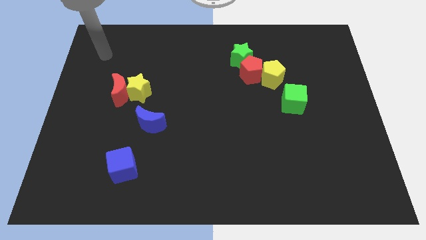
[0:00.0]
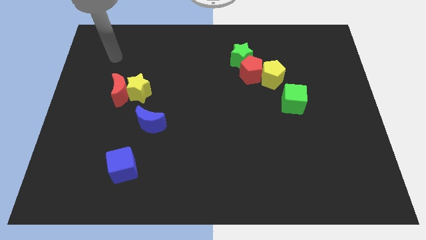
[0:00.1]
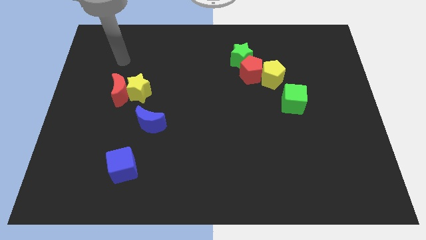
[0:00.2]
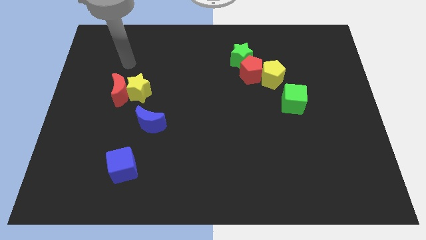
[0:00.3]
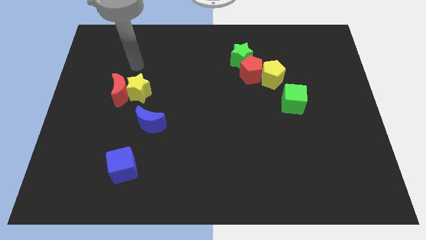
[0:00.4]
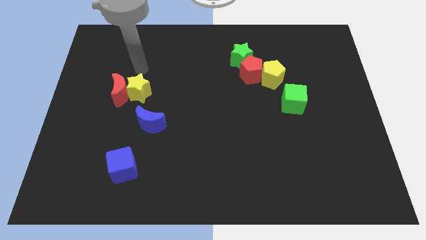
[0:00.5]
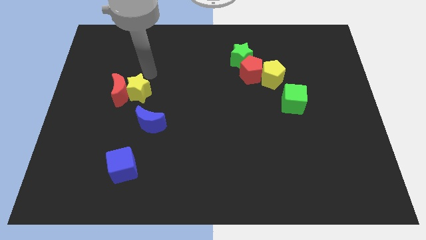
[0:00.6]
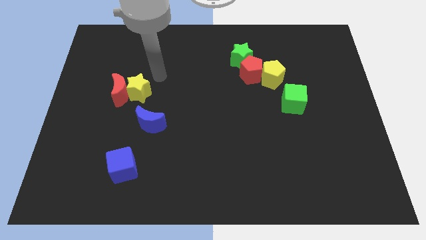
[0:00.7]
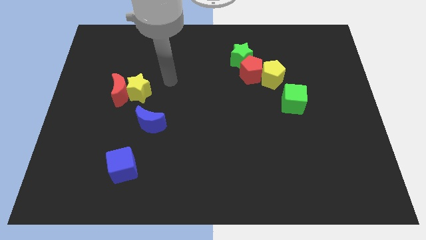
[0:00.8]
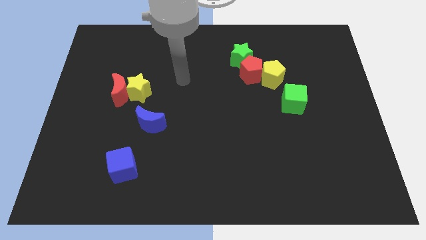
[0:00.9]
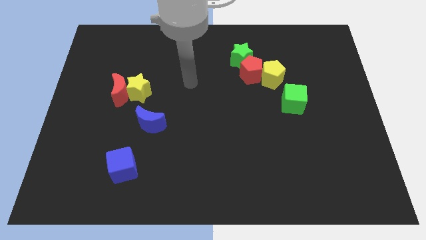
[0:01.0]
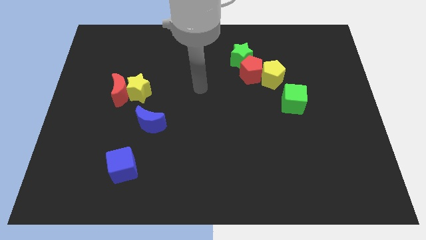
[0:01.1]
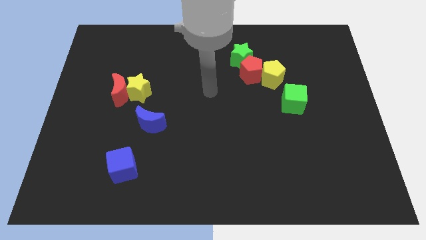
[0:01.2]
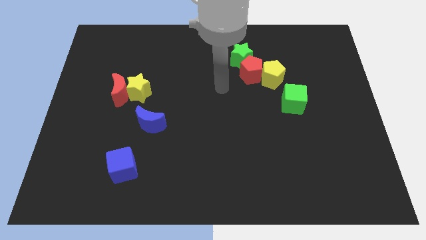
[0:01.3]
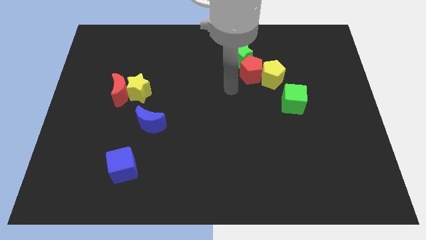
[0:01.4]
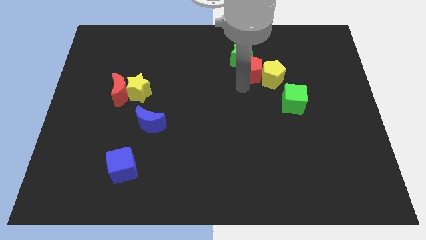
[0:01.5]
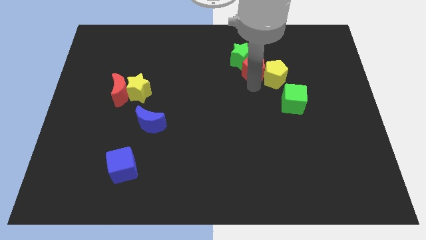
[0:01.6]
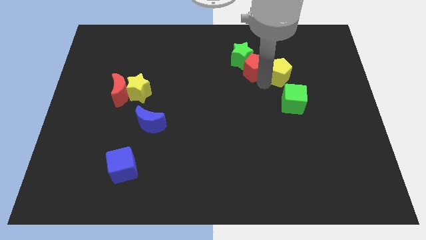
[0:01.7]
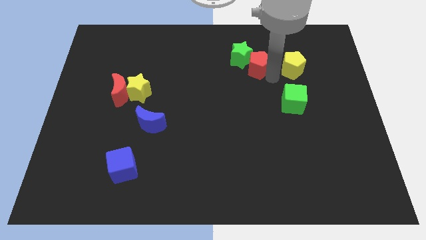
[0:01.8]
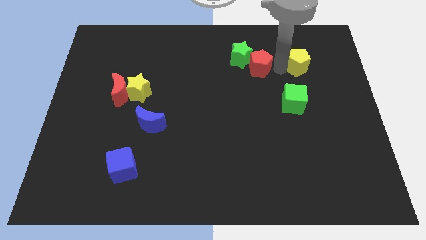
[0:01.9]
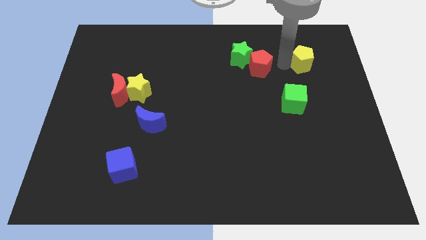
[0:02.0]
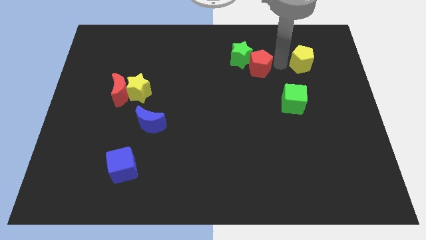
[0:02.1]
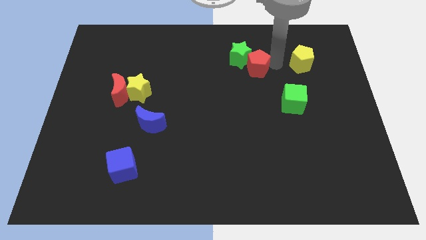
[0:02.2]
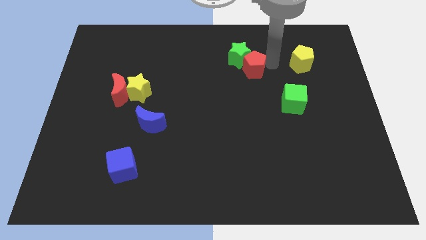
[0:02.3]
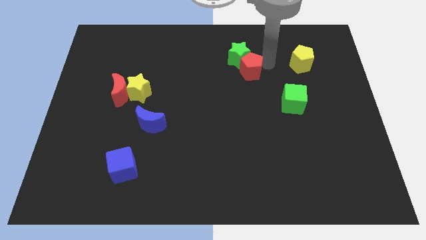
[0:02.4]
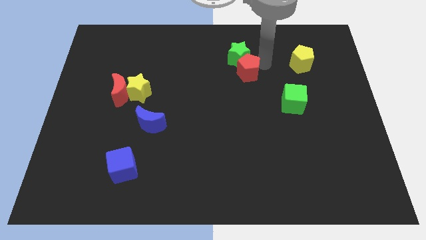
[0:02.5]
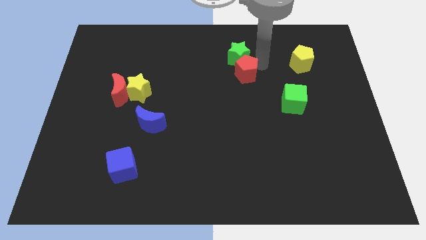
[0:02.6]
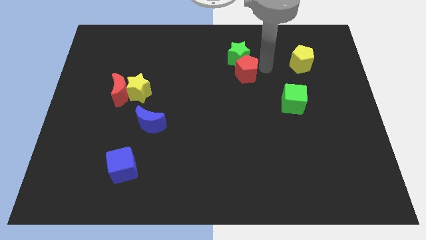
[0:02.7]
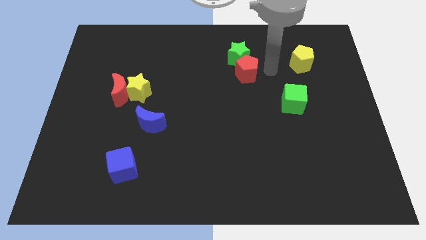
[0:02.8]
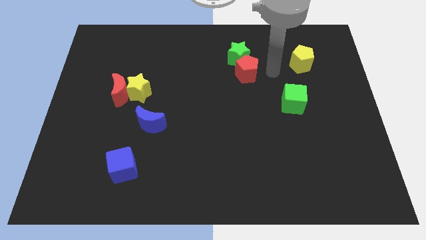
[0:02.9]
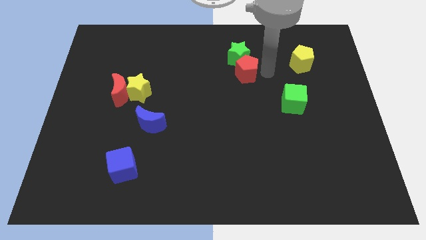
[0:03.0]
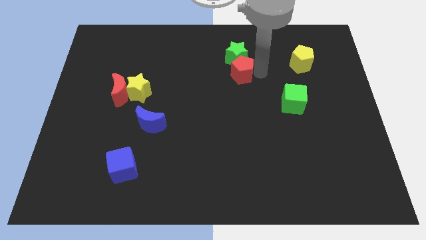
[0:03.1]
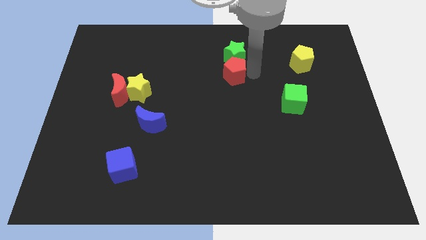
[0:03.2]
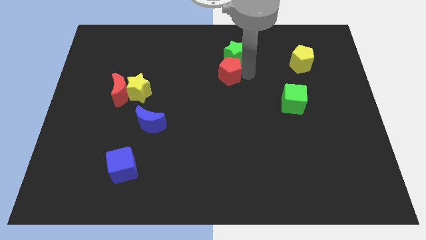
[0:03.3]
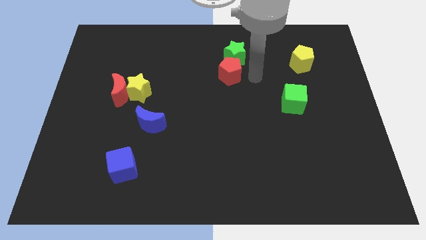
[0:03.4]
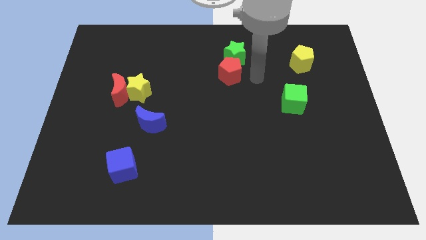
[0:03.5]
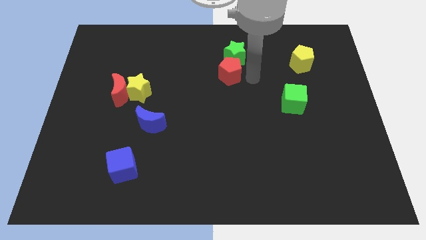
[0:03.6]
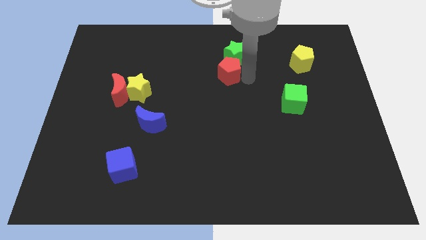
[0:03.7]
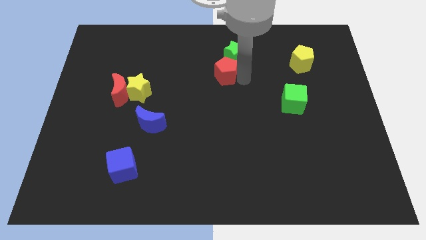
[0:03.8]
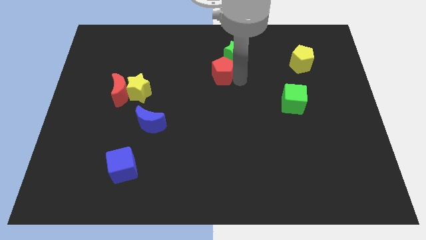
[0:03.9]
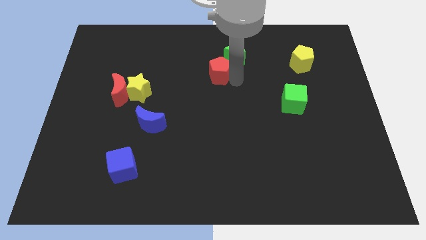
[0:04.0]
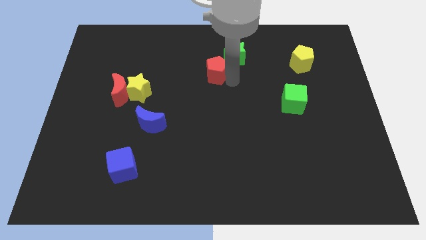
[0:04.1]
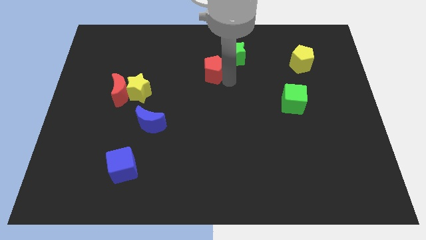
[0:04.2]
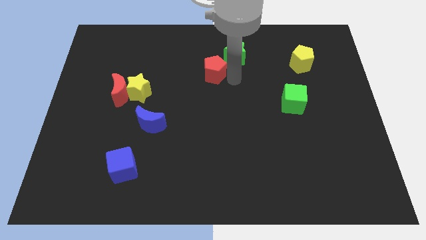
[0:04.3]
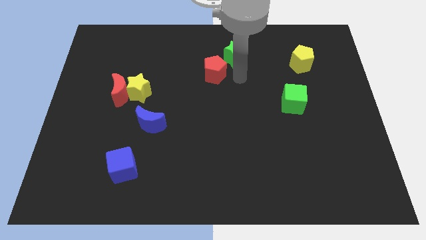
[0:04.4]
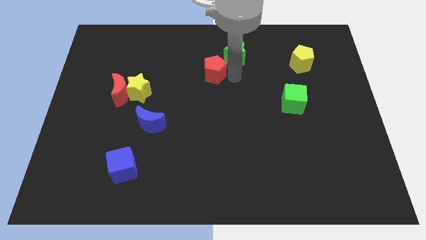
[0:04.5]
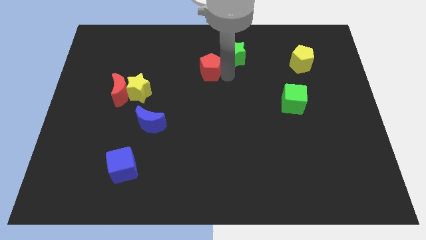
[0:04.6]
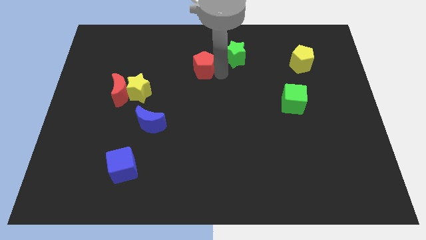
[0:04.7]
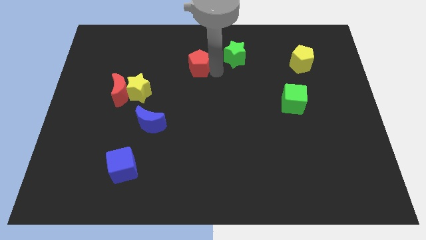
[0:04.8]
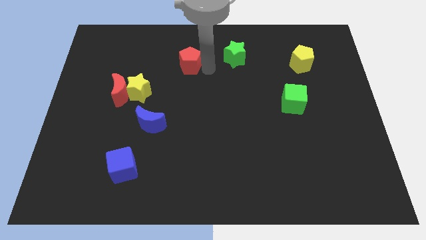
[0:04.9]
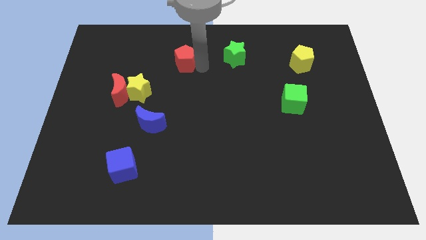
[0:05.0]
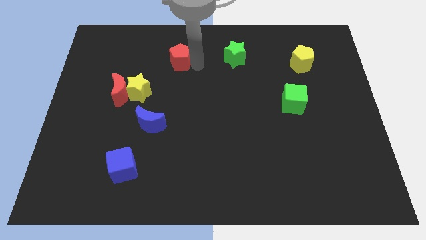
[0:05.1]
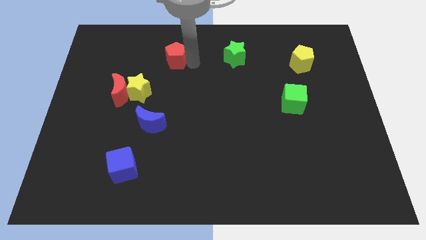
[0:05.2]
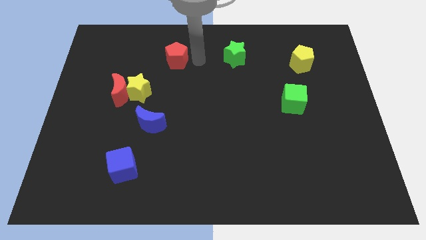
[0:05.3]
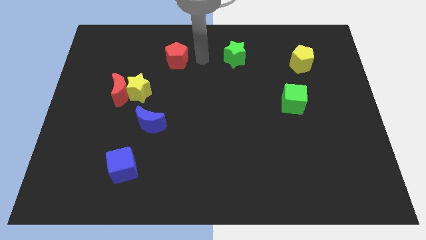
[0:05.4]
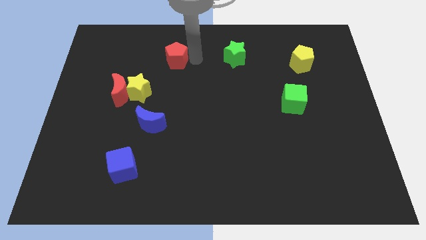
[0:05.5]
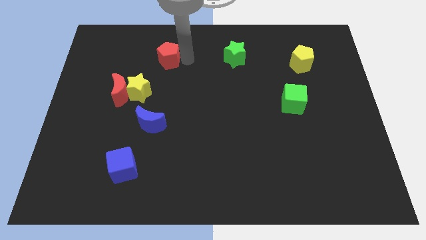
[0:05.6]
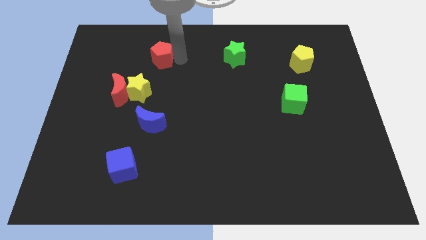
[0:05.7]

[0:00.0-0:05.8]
move the red pentagon to the top side of the yellow star

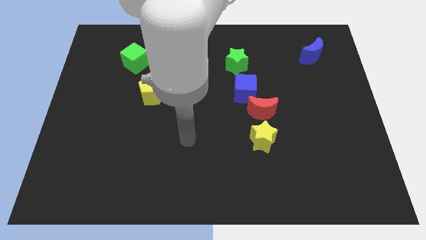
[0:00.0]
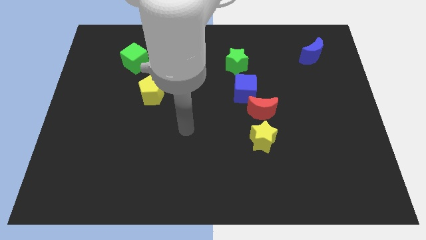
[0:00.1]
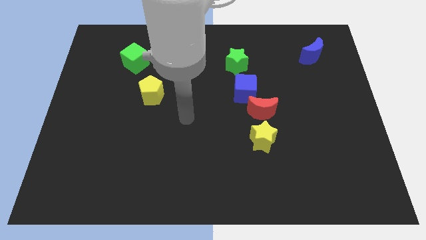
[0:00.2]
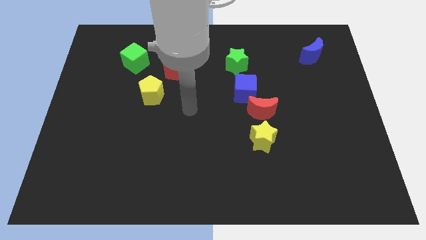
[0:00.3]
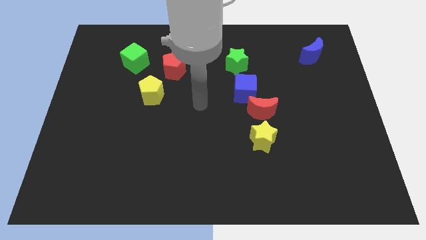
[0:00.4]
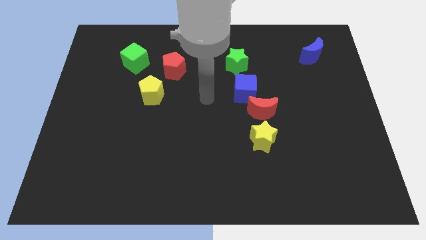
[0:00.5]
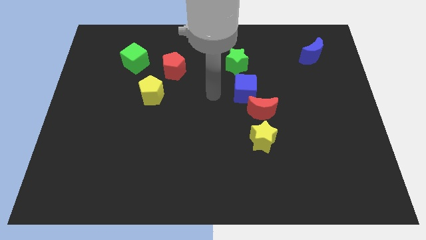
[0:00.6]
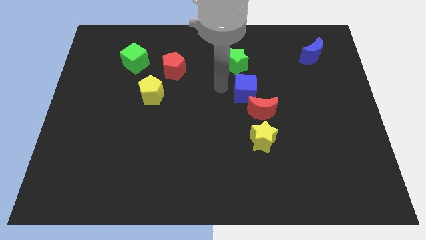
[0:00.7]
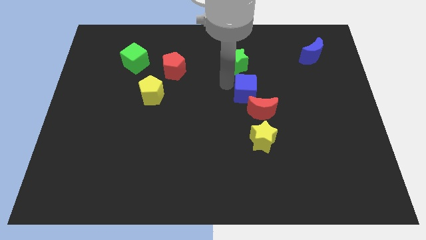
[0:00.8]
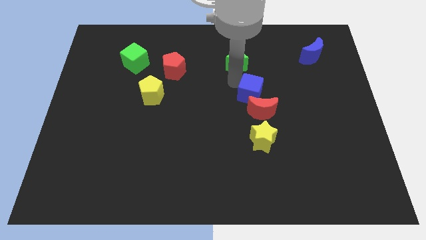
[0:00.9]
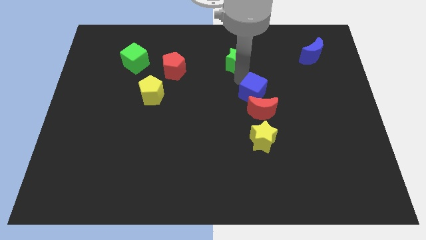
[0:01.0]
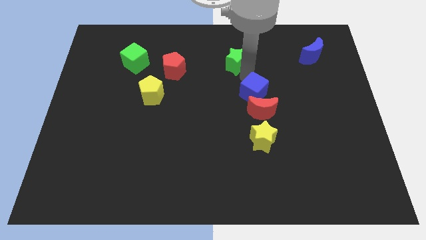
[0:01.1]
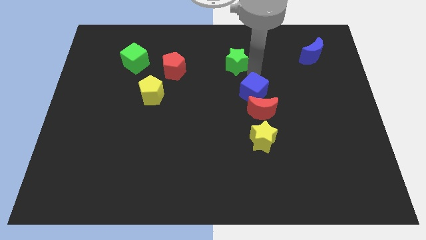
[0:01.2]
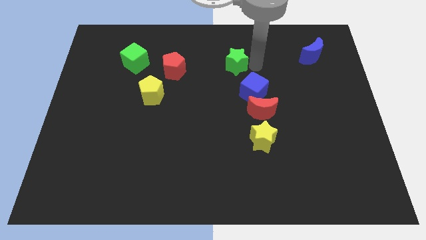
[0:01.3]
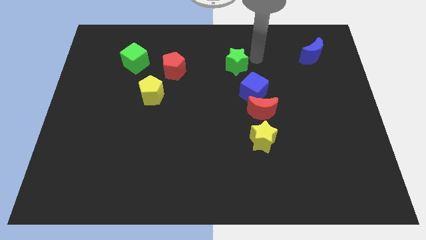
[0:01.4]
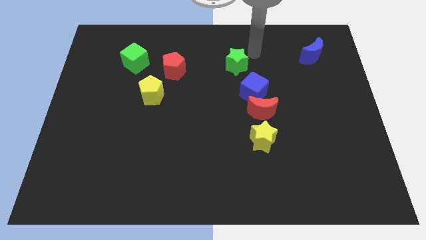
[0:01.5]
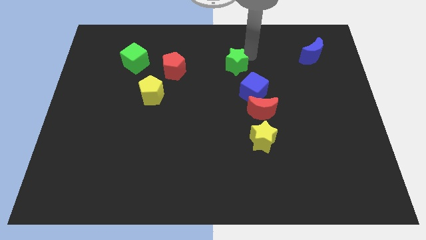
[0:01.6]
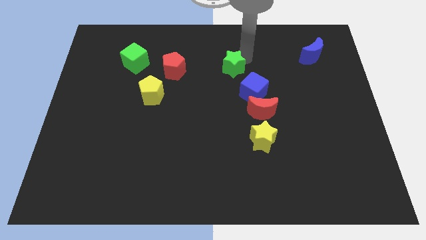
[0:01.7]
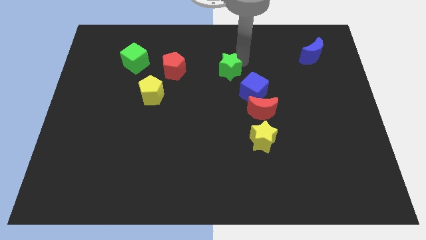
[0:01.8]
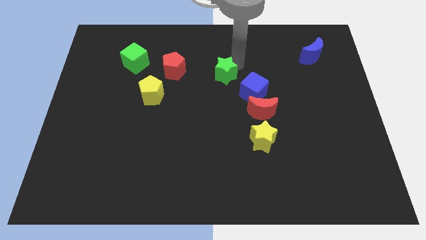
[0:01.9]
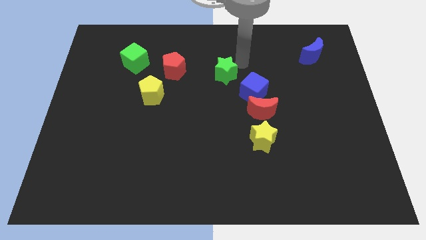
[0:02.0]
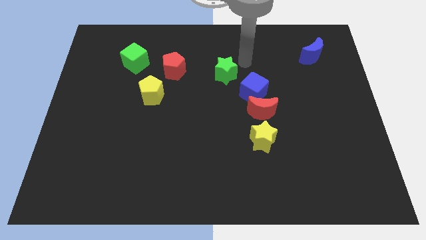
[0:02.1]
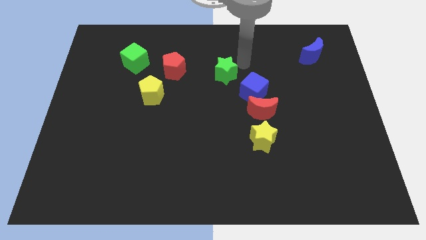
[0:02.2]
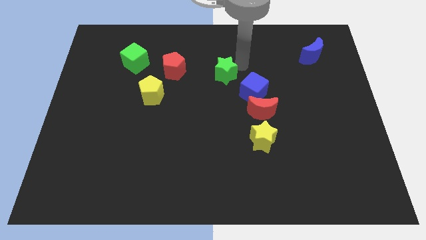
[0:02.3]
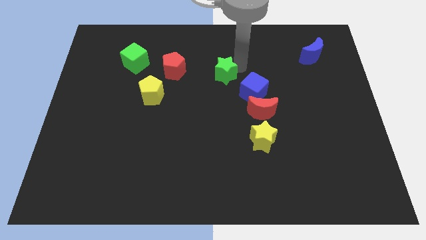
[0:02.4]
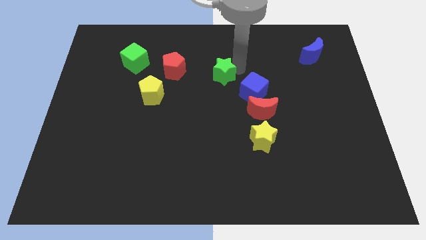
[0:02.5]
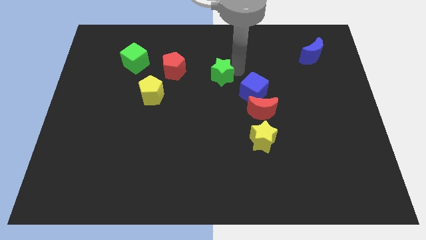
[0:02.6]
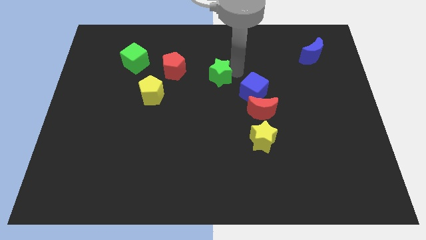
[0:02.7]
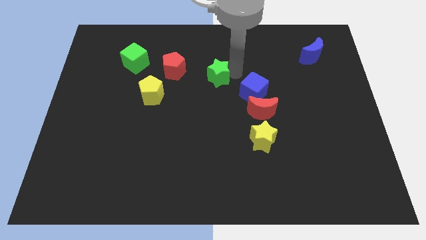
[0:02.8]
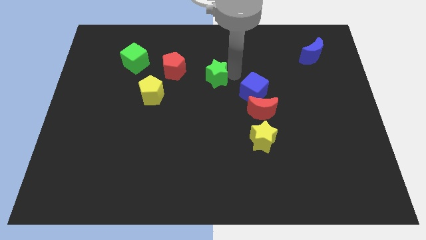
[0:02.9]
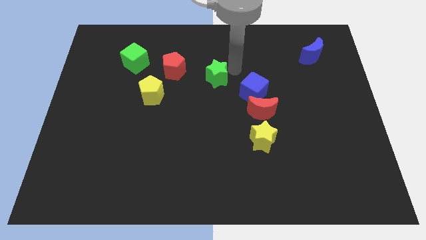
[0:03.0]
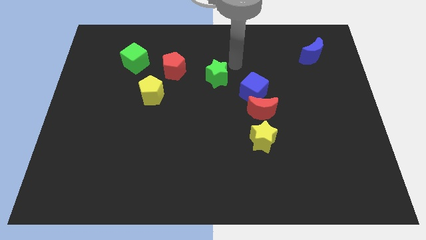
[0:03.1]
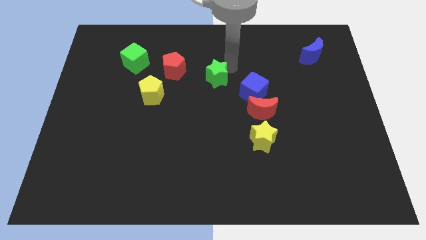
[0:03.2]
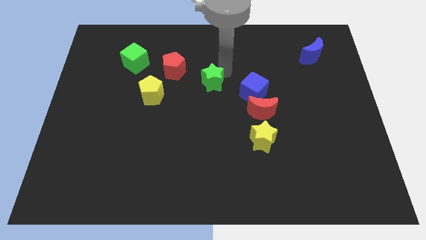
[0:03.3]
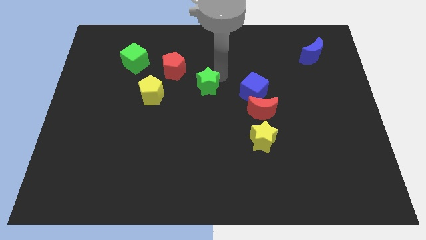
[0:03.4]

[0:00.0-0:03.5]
slide the green star to the right side of the yellow pentagon
